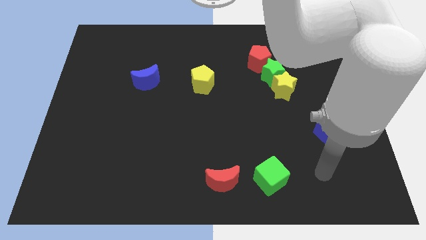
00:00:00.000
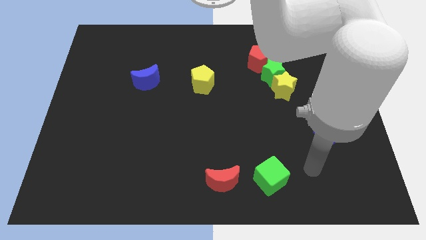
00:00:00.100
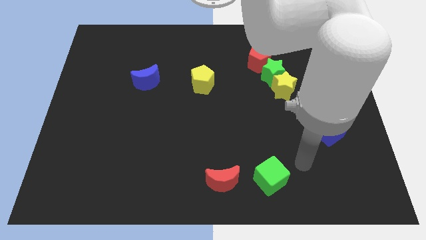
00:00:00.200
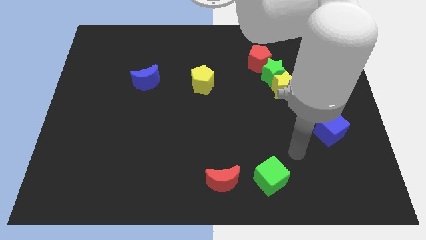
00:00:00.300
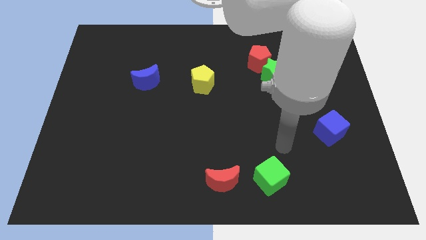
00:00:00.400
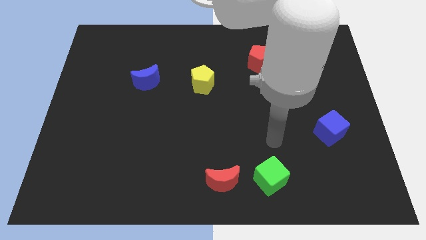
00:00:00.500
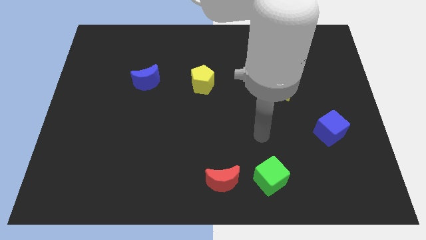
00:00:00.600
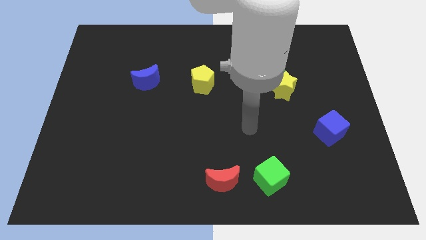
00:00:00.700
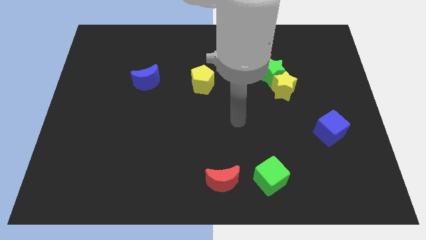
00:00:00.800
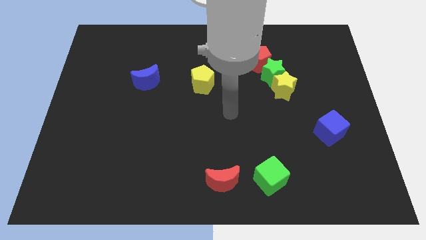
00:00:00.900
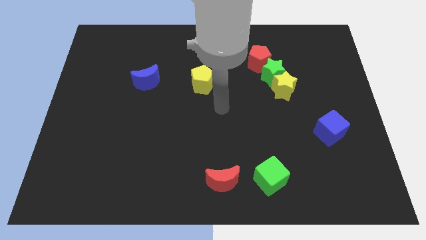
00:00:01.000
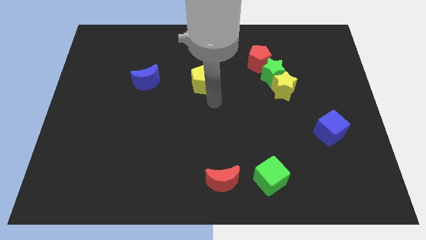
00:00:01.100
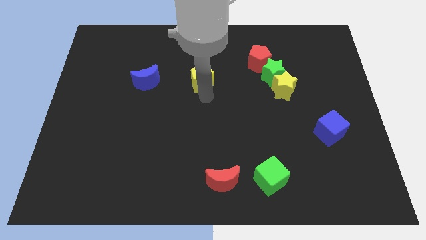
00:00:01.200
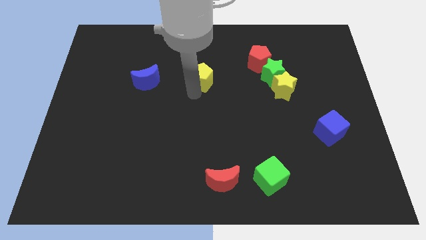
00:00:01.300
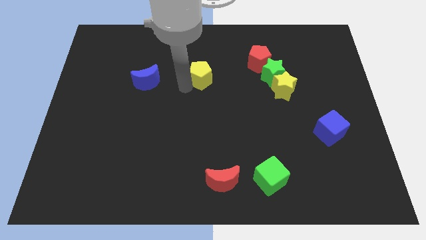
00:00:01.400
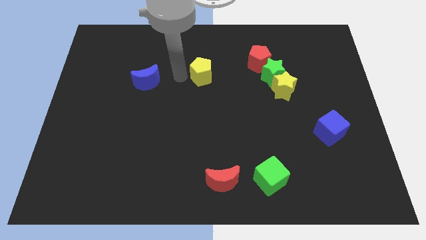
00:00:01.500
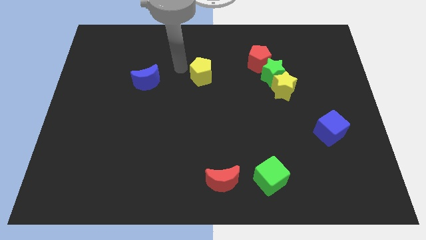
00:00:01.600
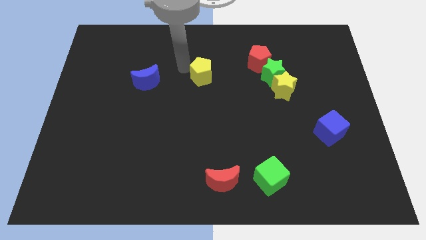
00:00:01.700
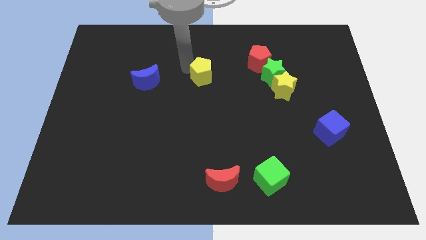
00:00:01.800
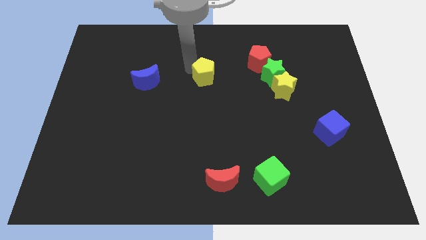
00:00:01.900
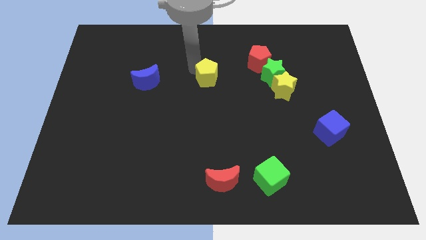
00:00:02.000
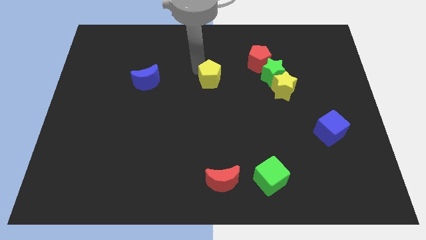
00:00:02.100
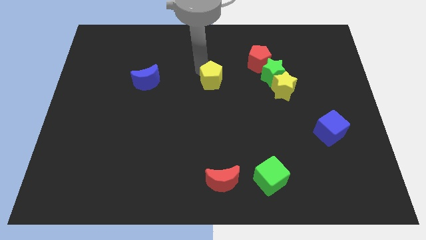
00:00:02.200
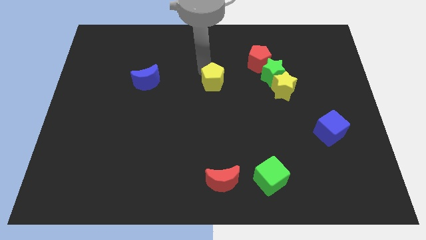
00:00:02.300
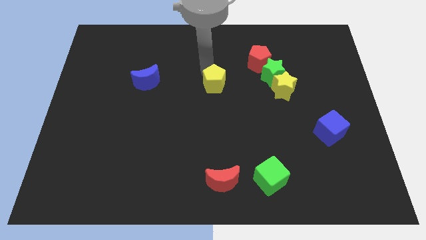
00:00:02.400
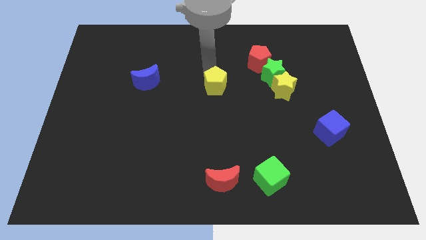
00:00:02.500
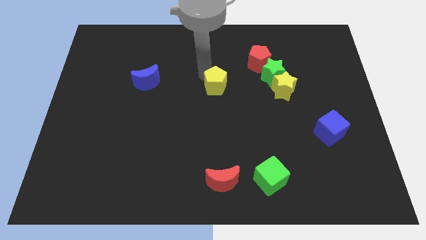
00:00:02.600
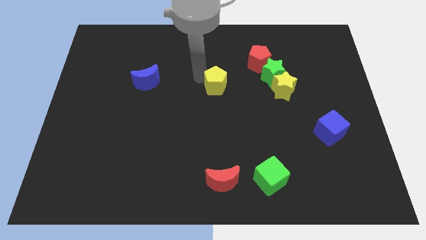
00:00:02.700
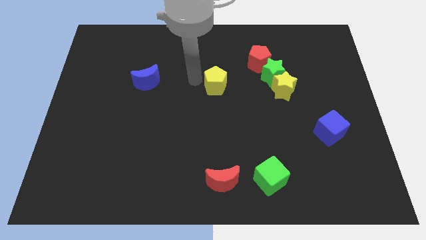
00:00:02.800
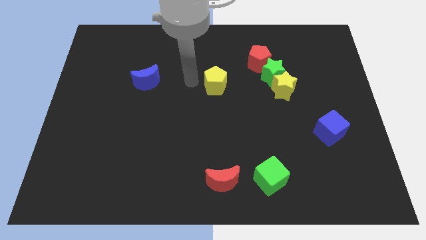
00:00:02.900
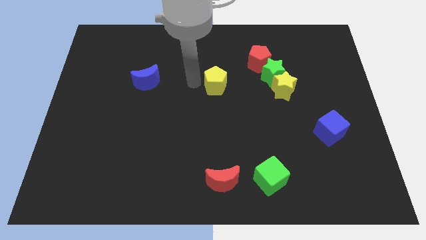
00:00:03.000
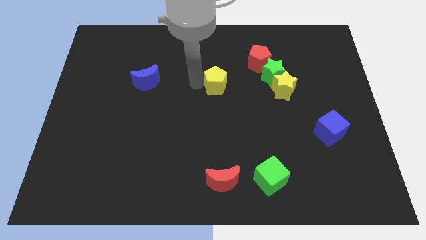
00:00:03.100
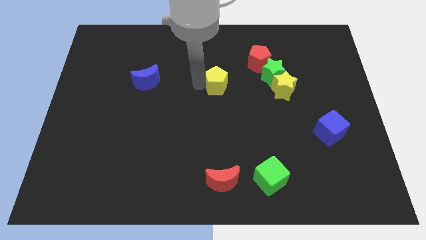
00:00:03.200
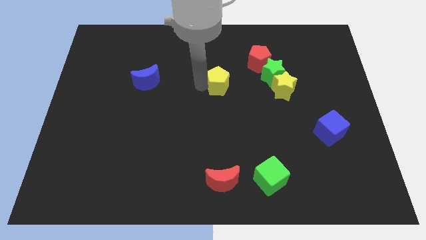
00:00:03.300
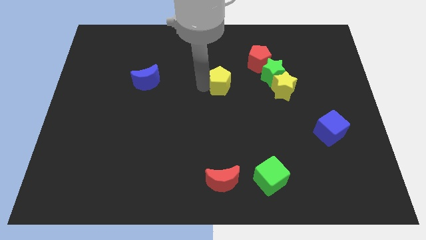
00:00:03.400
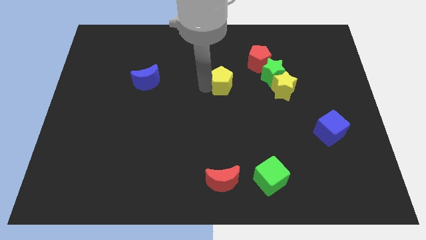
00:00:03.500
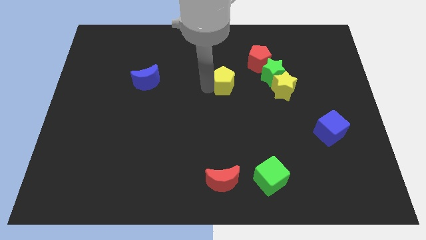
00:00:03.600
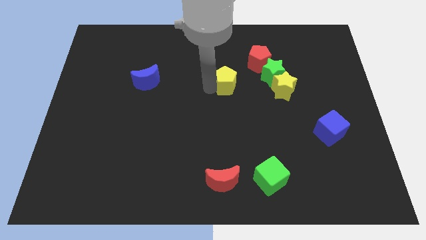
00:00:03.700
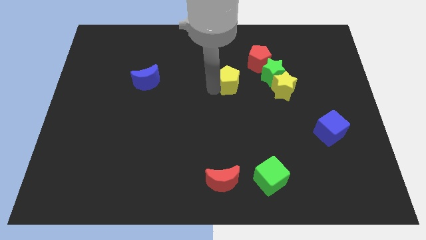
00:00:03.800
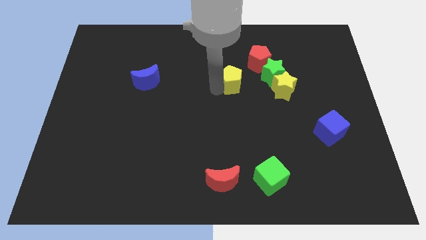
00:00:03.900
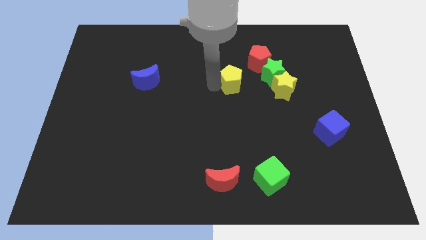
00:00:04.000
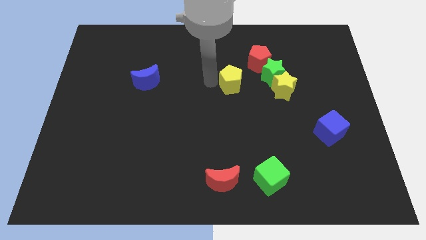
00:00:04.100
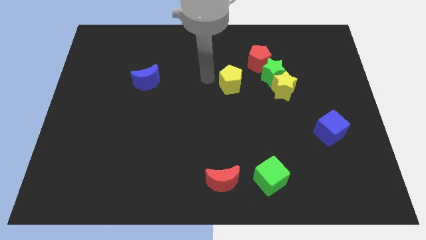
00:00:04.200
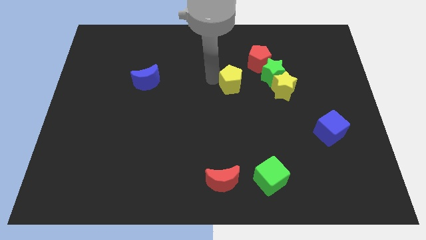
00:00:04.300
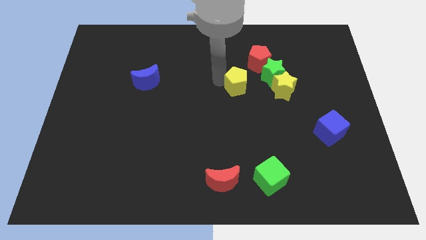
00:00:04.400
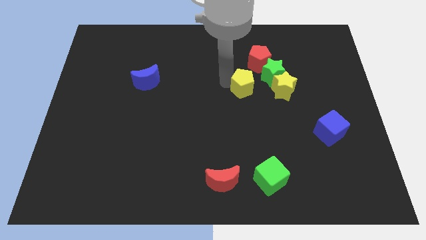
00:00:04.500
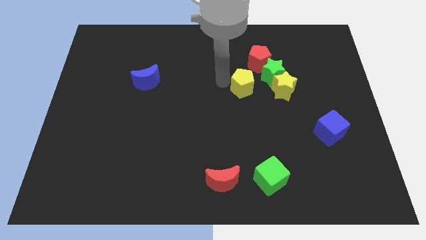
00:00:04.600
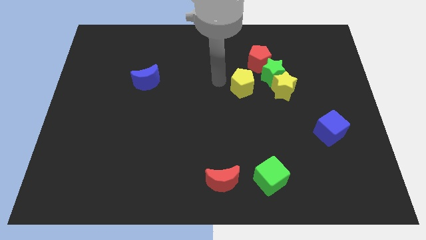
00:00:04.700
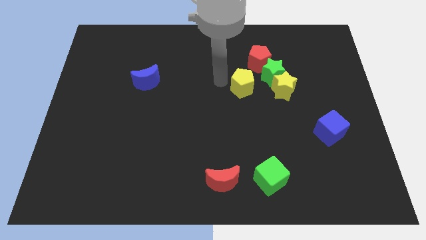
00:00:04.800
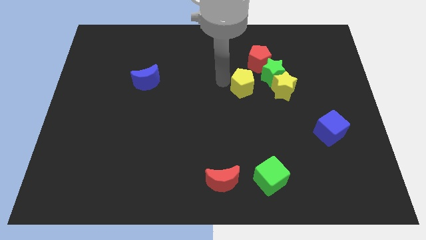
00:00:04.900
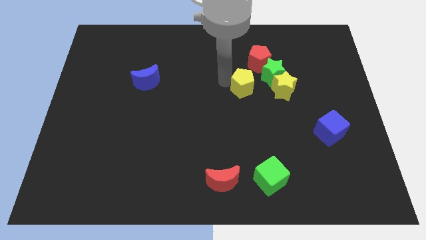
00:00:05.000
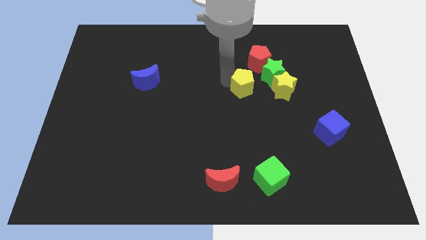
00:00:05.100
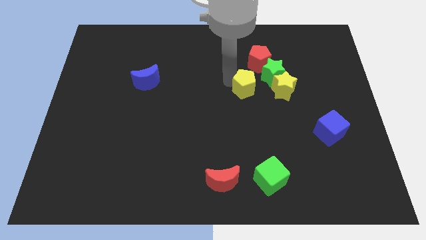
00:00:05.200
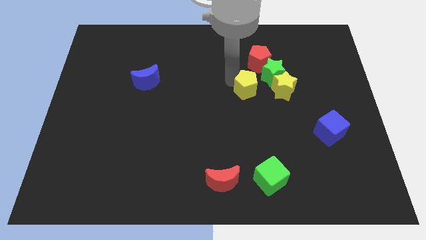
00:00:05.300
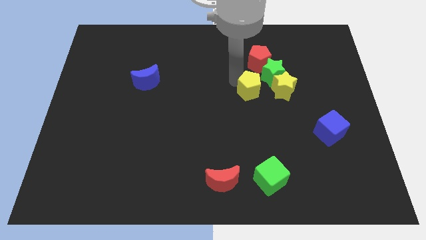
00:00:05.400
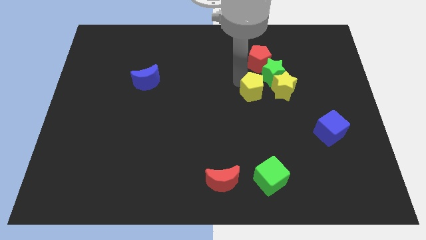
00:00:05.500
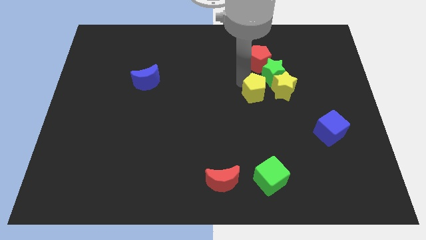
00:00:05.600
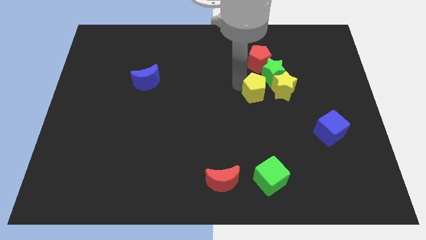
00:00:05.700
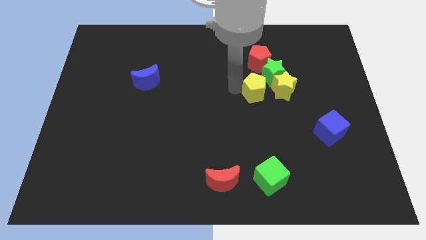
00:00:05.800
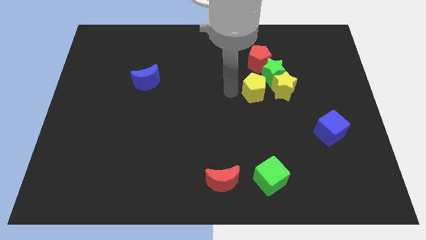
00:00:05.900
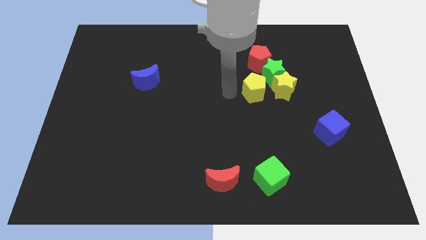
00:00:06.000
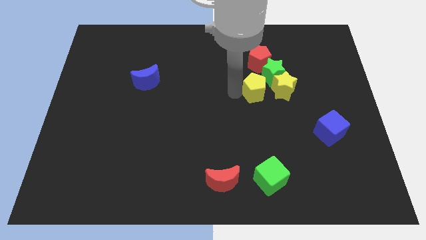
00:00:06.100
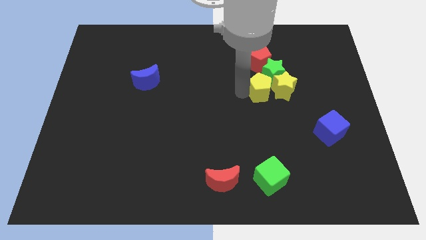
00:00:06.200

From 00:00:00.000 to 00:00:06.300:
push the yellow pentagon next to the yellow star
